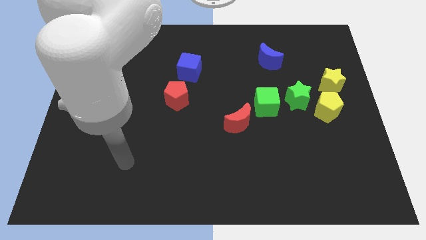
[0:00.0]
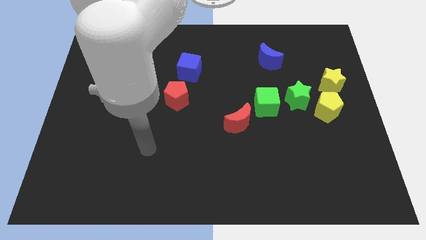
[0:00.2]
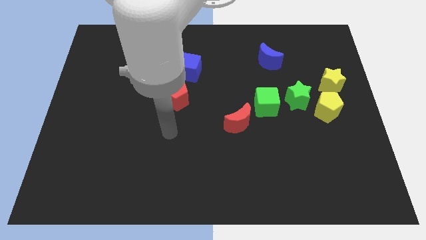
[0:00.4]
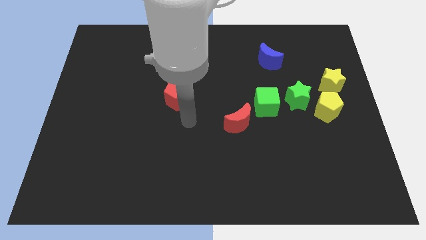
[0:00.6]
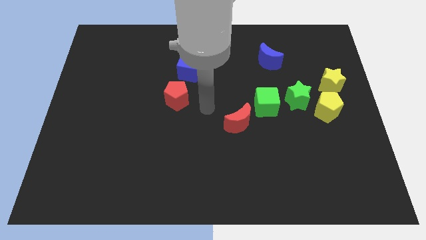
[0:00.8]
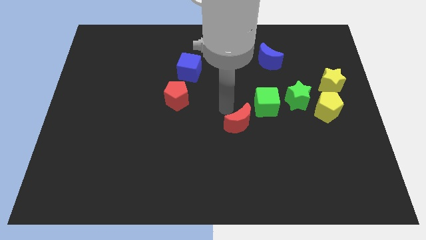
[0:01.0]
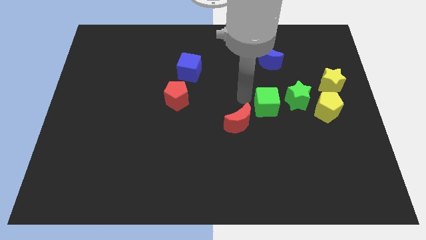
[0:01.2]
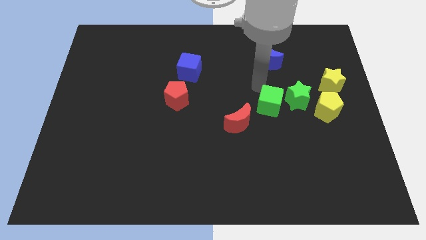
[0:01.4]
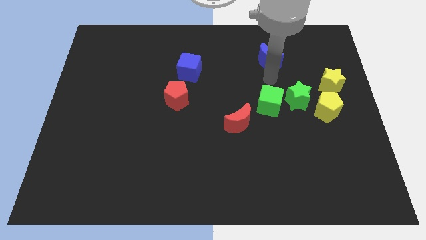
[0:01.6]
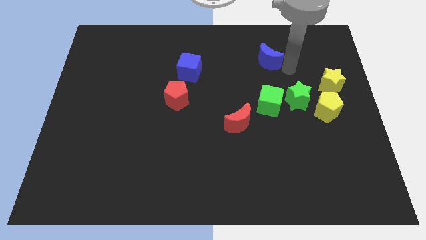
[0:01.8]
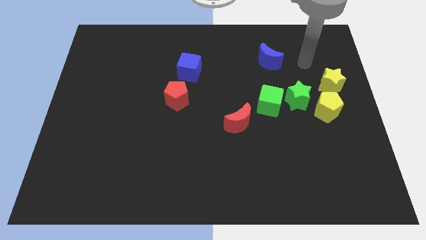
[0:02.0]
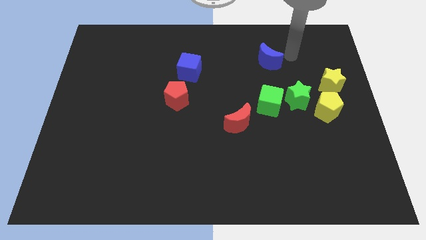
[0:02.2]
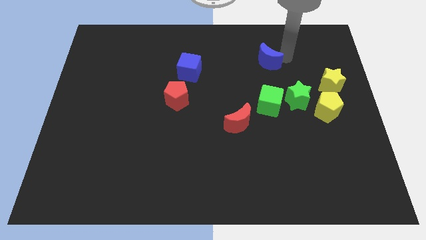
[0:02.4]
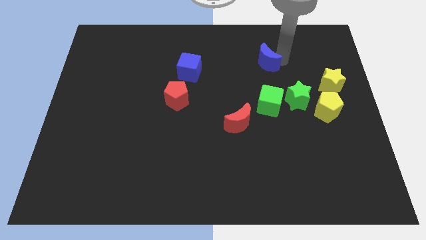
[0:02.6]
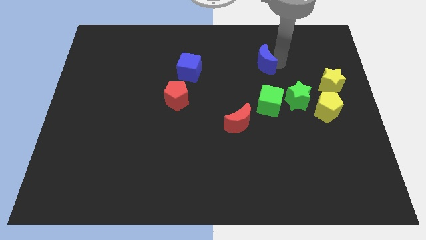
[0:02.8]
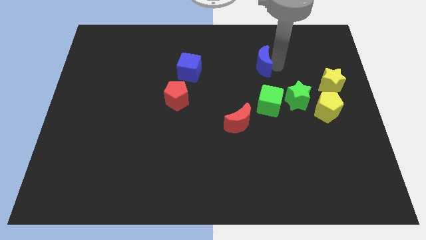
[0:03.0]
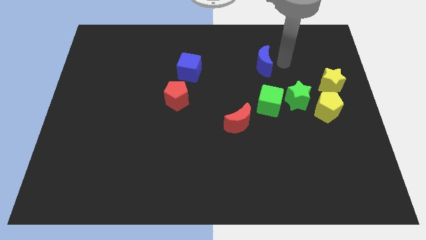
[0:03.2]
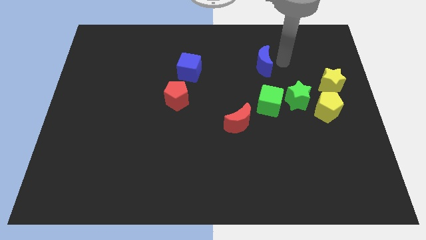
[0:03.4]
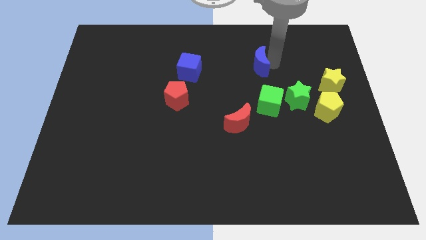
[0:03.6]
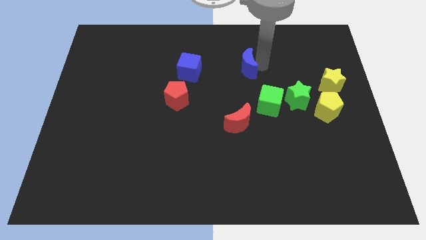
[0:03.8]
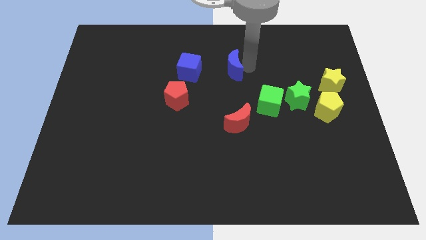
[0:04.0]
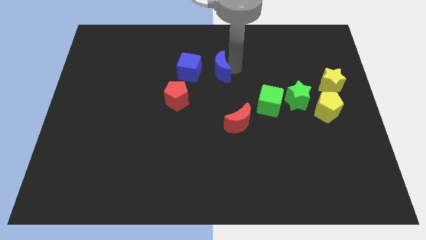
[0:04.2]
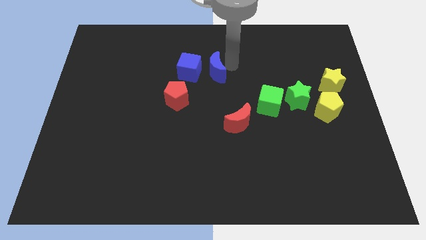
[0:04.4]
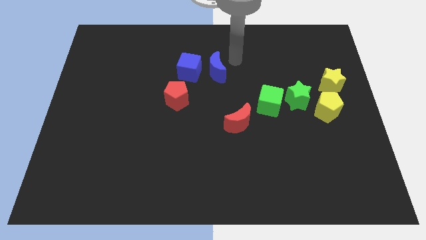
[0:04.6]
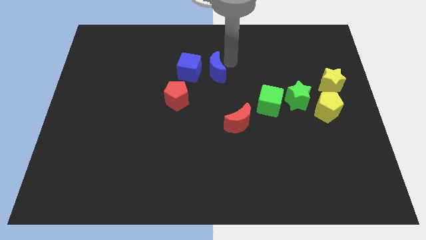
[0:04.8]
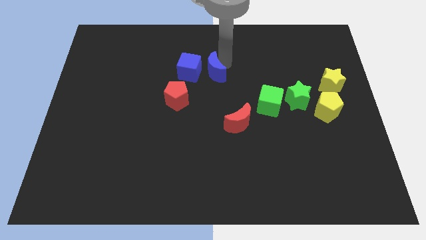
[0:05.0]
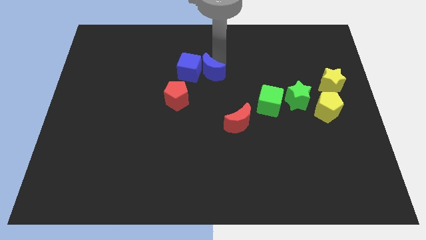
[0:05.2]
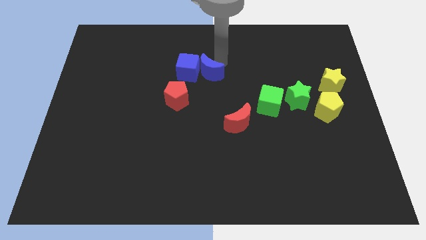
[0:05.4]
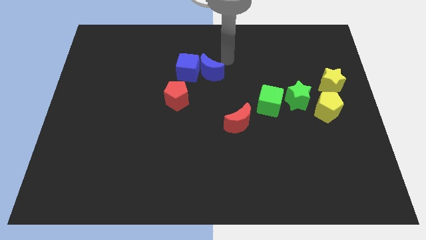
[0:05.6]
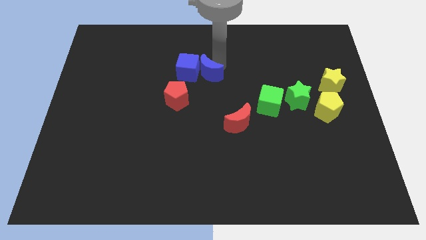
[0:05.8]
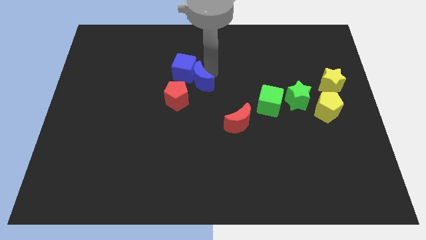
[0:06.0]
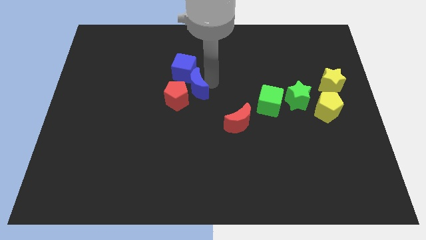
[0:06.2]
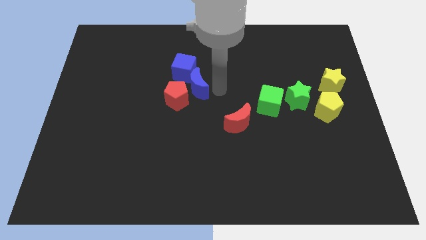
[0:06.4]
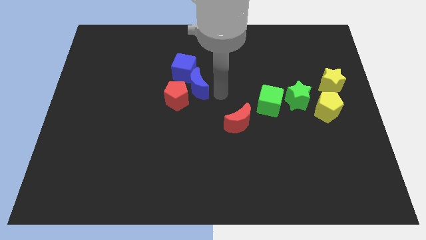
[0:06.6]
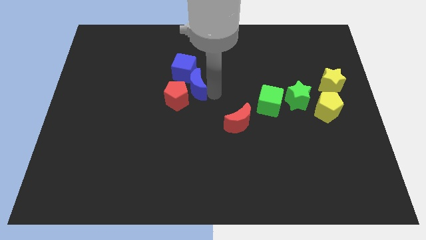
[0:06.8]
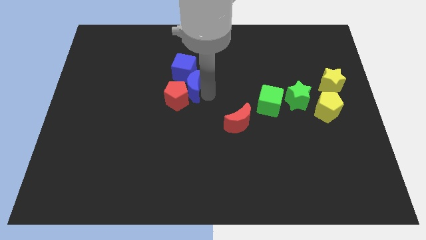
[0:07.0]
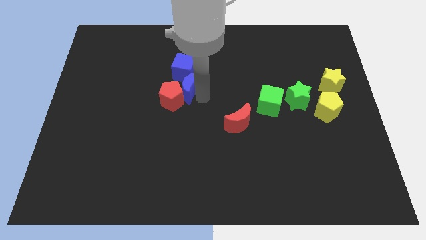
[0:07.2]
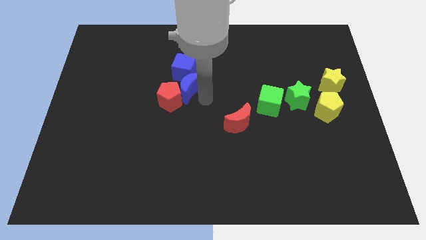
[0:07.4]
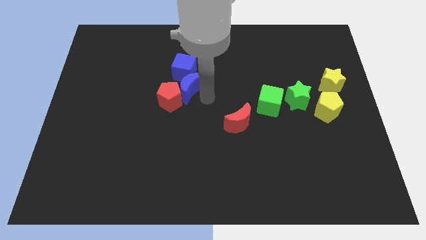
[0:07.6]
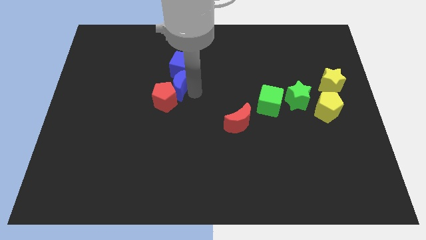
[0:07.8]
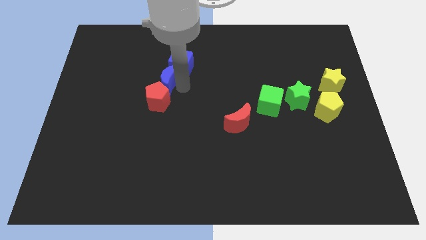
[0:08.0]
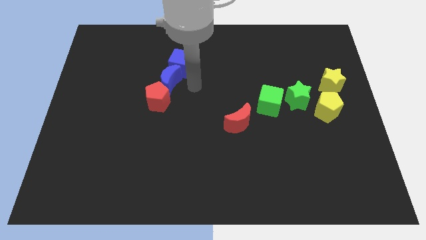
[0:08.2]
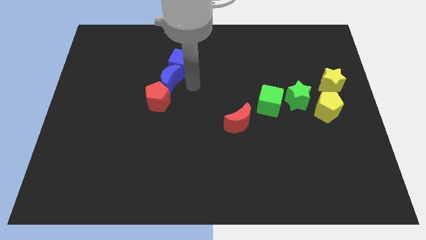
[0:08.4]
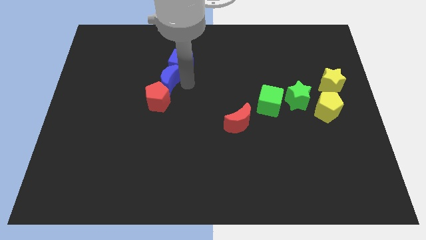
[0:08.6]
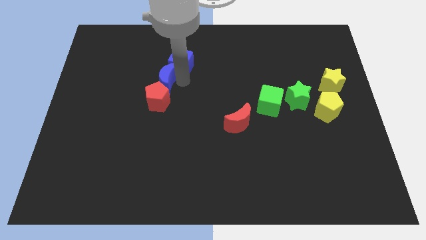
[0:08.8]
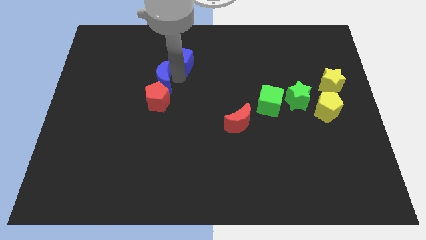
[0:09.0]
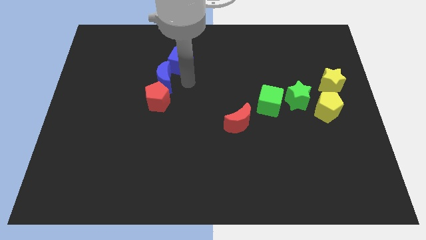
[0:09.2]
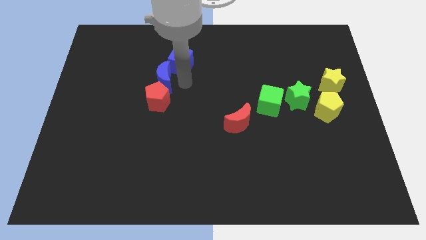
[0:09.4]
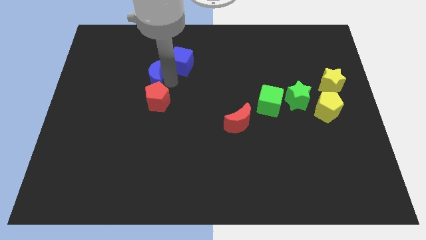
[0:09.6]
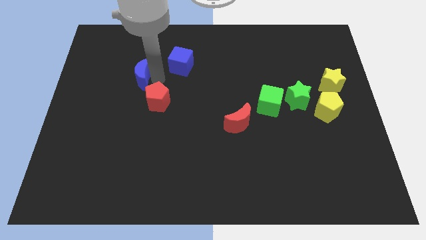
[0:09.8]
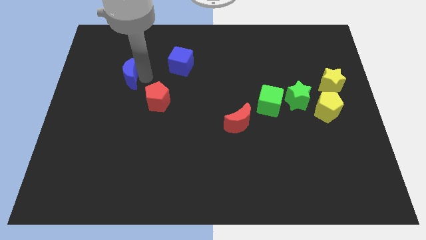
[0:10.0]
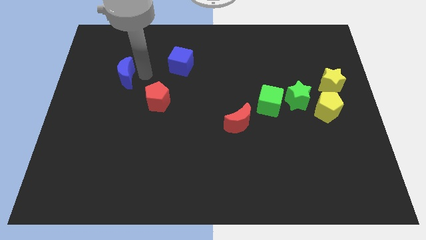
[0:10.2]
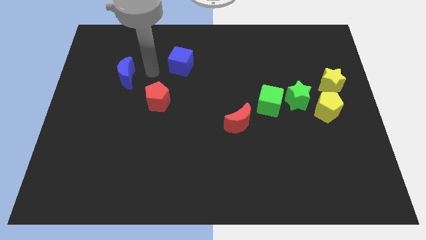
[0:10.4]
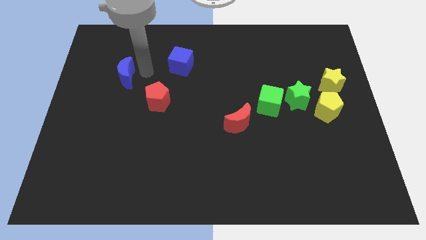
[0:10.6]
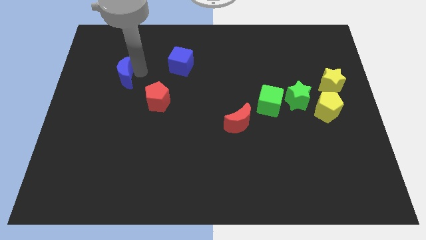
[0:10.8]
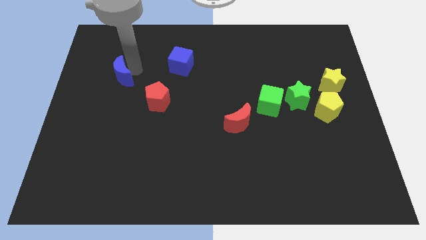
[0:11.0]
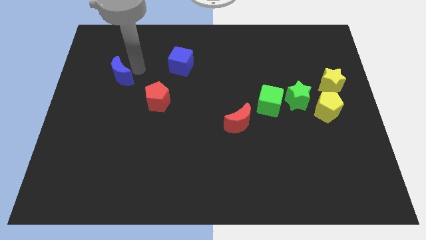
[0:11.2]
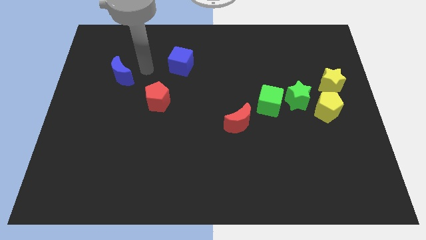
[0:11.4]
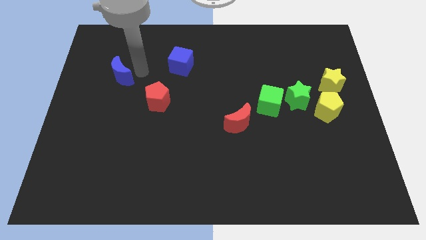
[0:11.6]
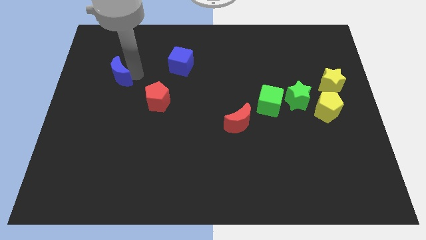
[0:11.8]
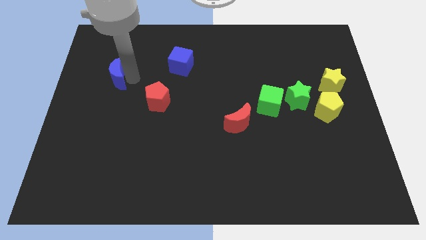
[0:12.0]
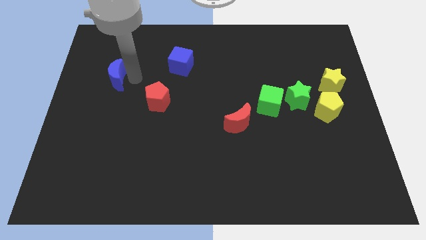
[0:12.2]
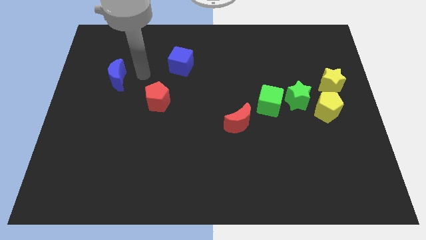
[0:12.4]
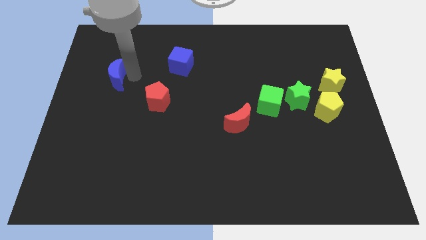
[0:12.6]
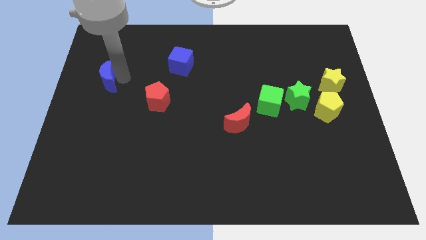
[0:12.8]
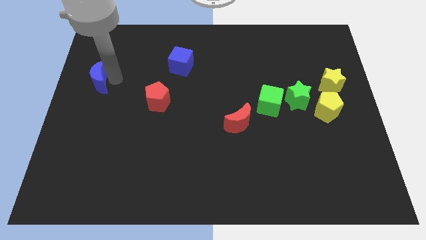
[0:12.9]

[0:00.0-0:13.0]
slide the blue moon to the center left

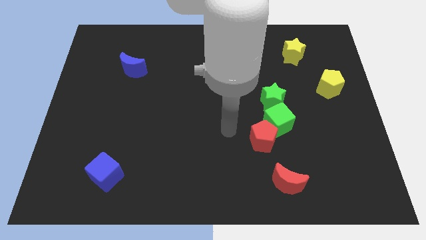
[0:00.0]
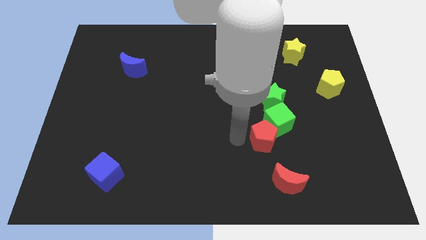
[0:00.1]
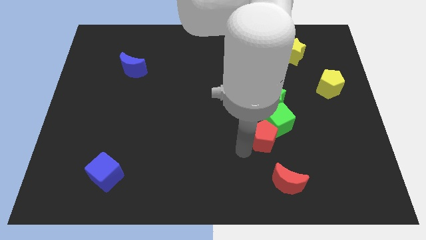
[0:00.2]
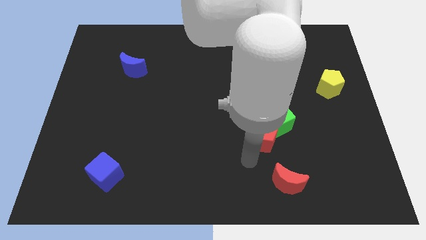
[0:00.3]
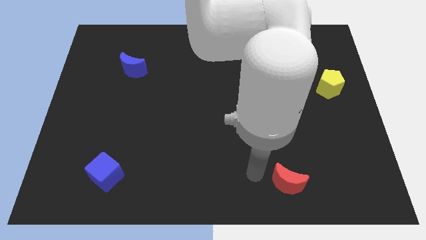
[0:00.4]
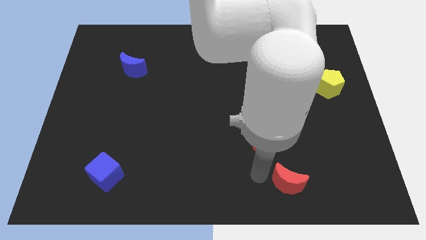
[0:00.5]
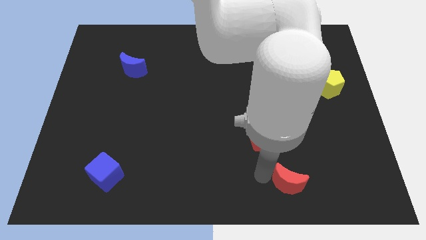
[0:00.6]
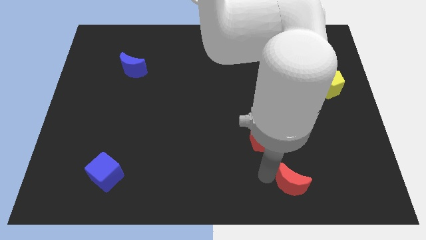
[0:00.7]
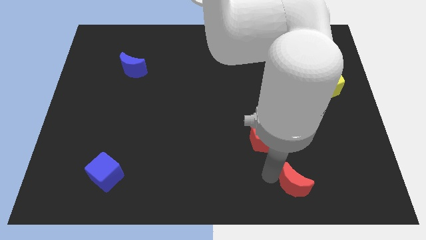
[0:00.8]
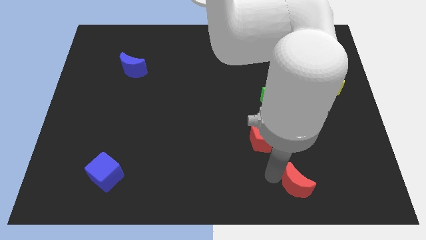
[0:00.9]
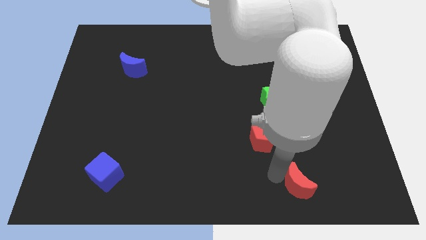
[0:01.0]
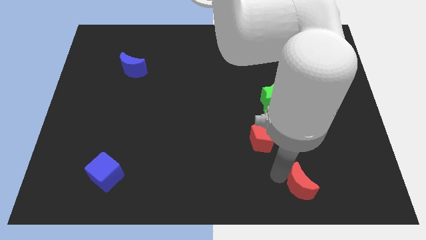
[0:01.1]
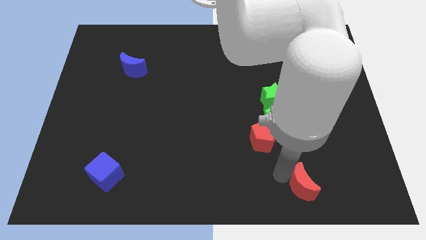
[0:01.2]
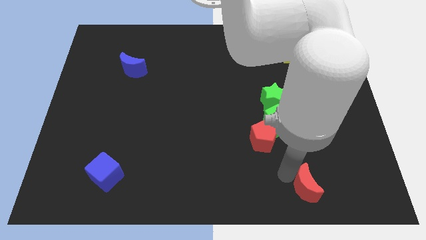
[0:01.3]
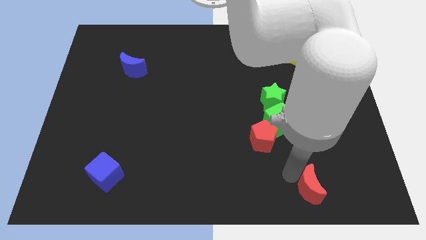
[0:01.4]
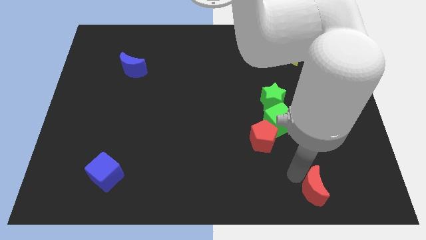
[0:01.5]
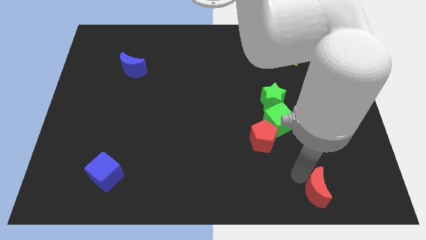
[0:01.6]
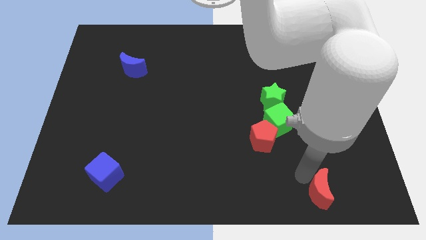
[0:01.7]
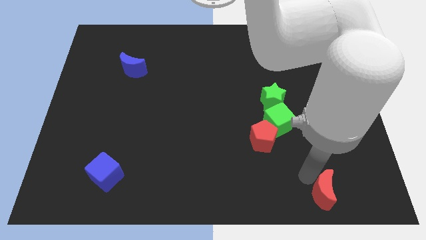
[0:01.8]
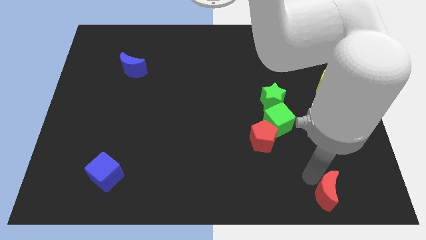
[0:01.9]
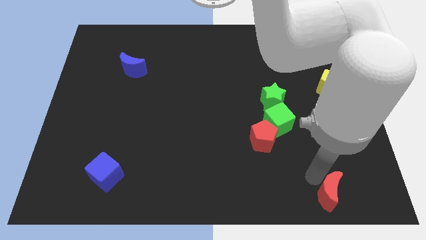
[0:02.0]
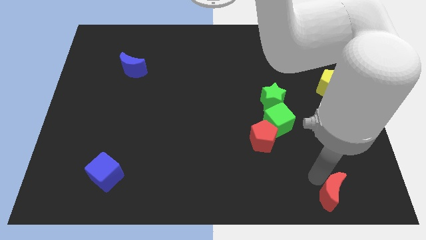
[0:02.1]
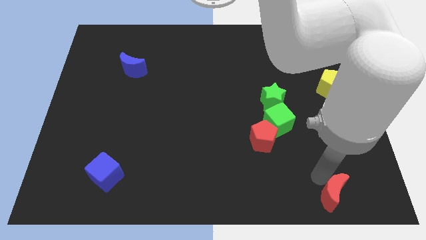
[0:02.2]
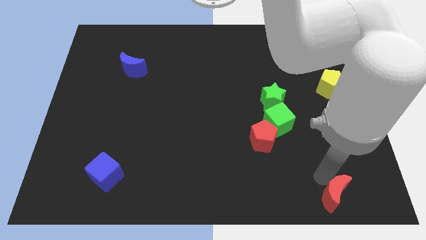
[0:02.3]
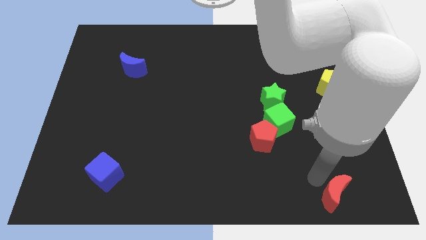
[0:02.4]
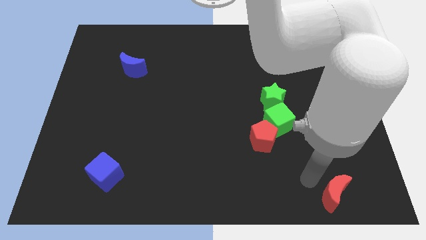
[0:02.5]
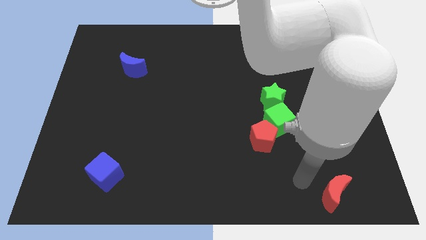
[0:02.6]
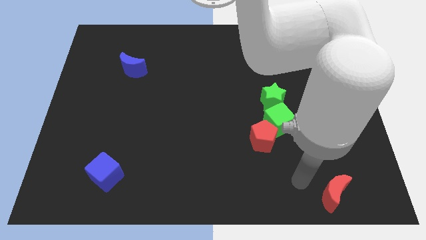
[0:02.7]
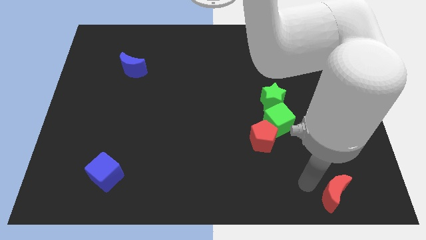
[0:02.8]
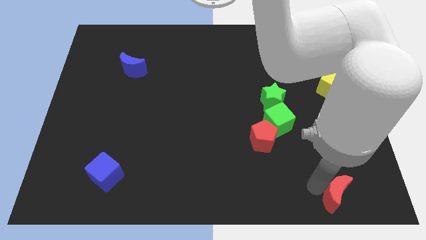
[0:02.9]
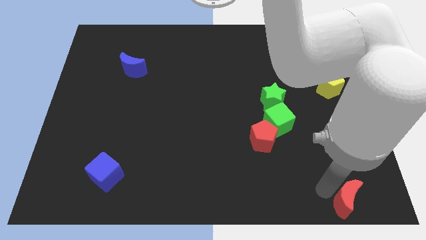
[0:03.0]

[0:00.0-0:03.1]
put the red moon to the bottom right corner
